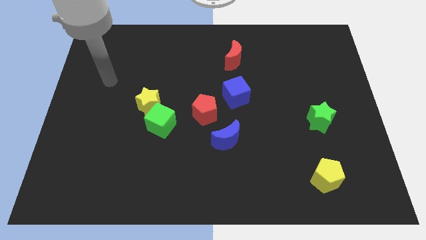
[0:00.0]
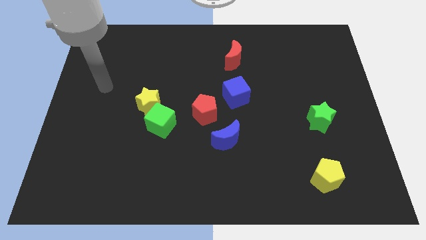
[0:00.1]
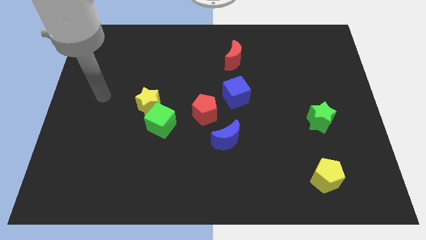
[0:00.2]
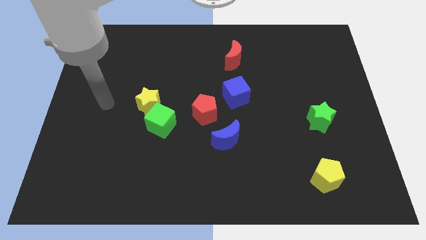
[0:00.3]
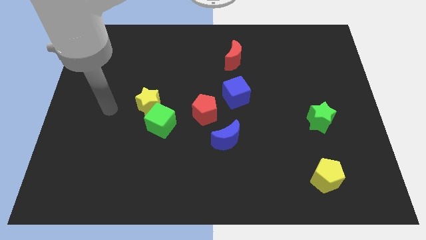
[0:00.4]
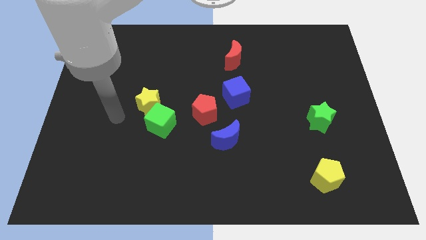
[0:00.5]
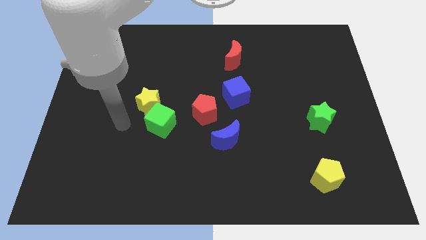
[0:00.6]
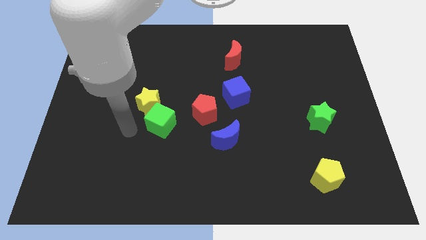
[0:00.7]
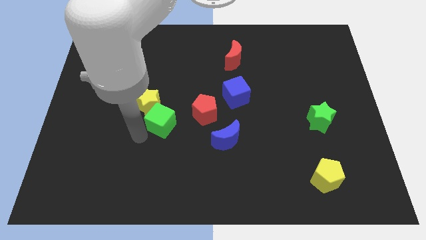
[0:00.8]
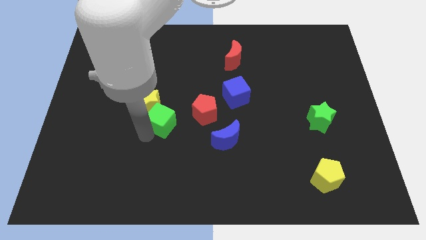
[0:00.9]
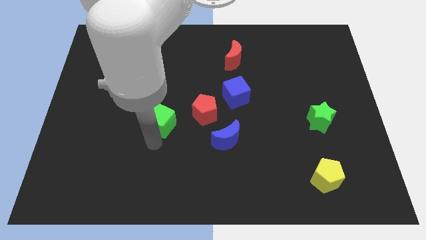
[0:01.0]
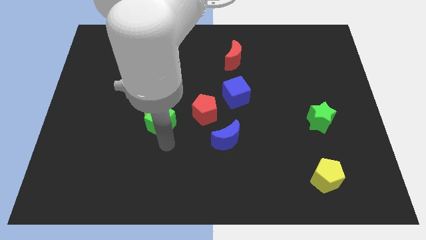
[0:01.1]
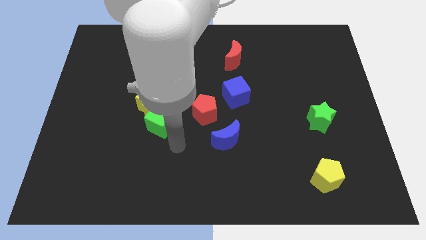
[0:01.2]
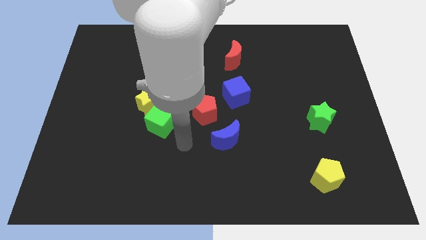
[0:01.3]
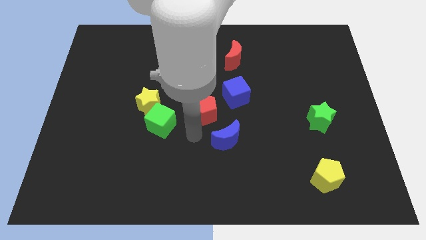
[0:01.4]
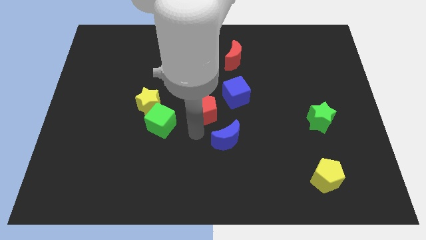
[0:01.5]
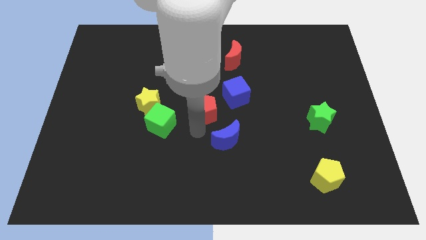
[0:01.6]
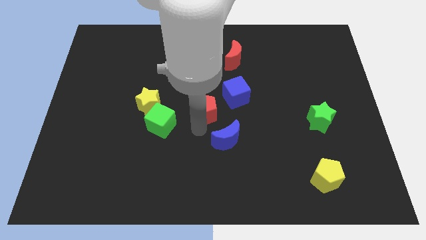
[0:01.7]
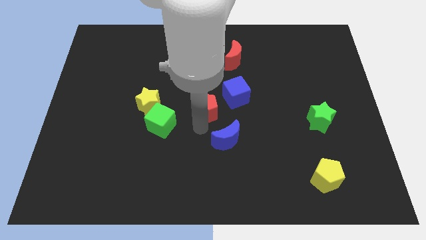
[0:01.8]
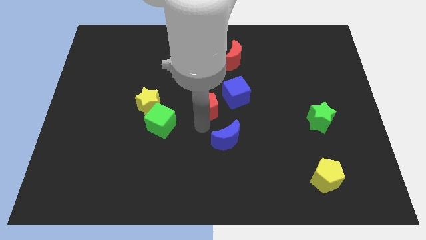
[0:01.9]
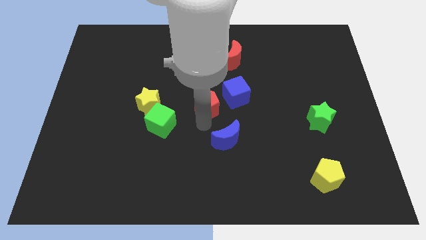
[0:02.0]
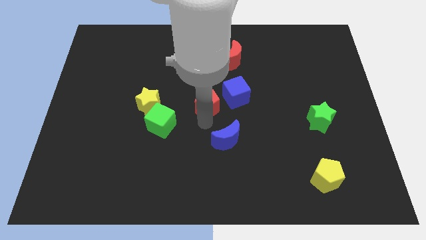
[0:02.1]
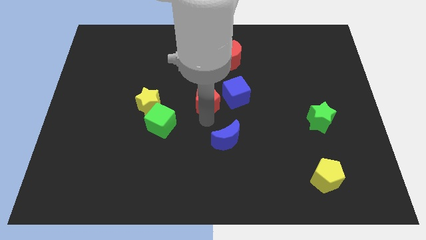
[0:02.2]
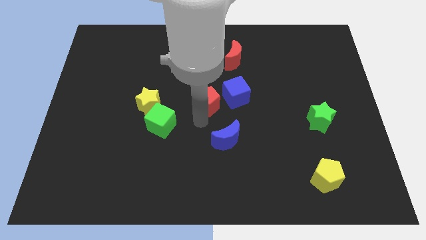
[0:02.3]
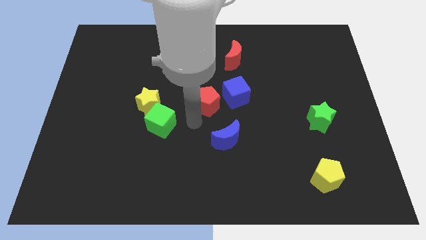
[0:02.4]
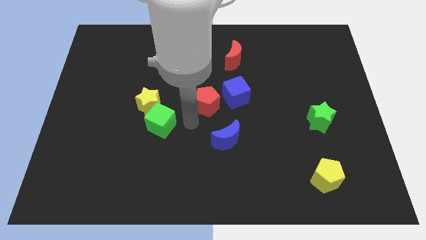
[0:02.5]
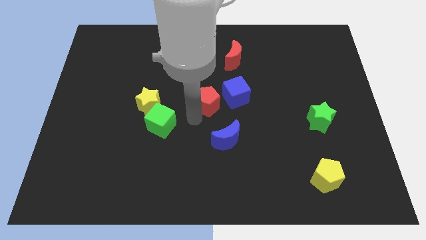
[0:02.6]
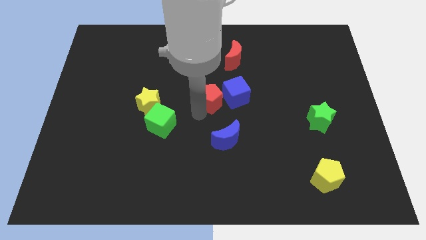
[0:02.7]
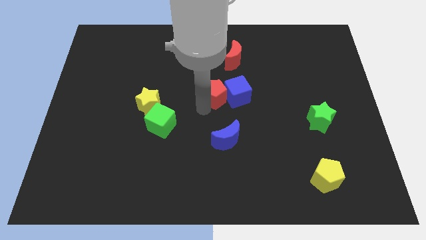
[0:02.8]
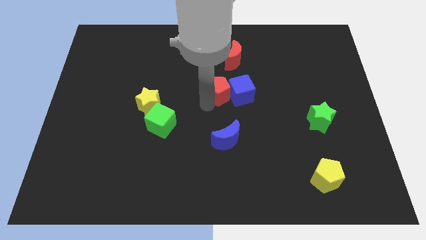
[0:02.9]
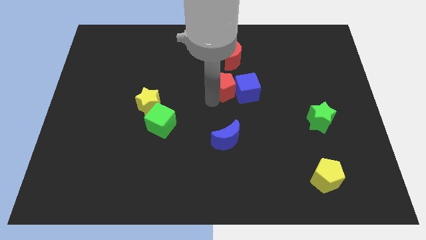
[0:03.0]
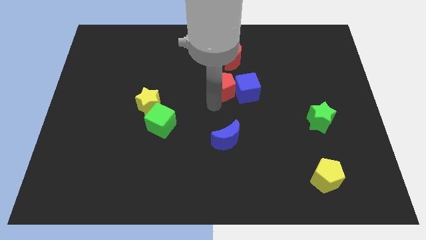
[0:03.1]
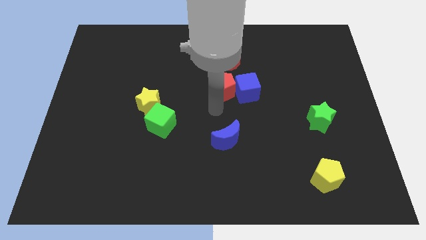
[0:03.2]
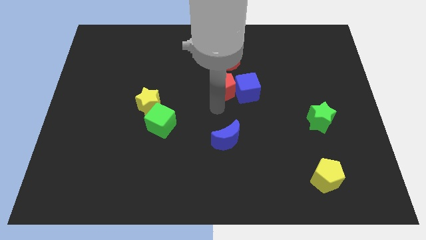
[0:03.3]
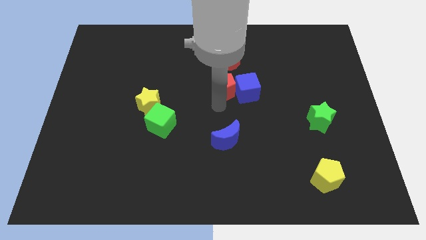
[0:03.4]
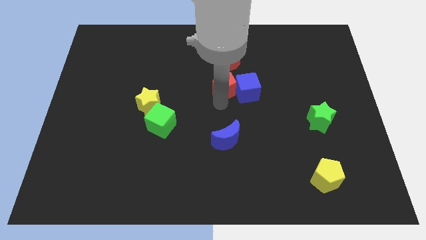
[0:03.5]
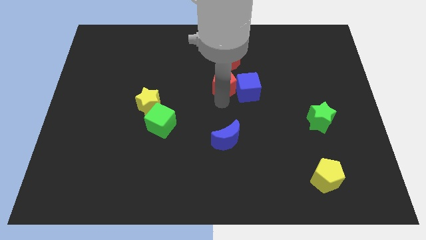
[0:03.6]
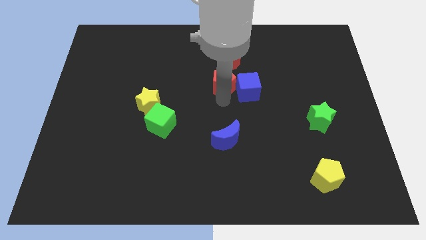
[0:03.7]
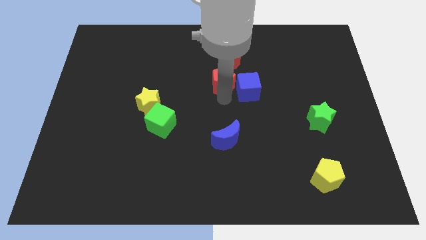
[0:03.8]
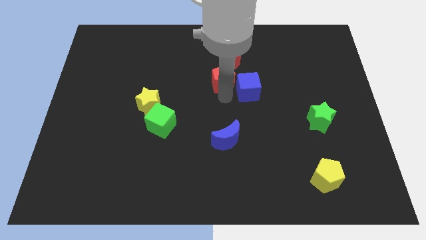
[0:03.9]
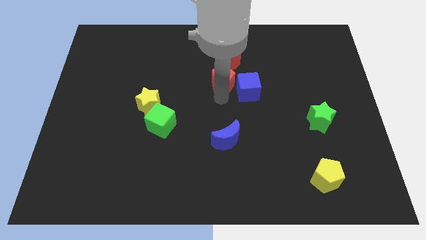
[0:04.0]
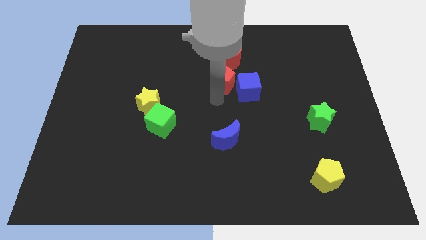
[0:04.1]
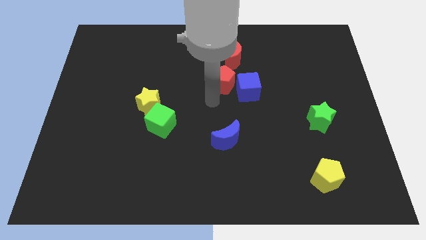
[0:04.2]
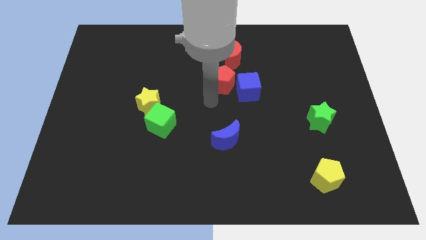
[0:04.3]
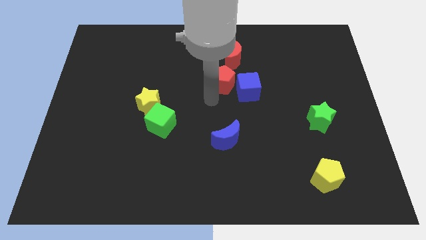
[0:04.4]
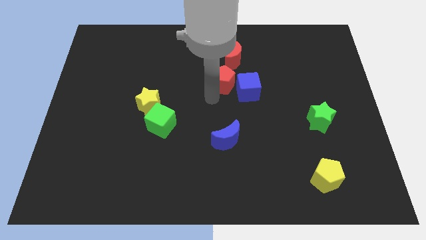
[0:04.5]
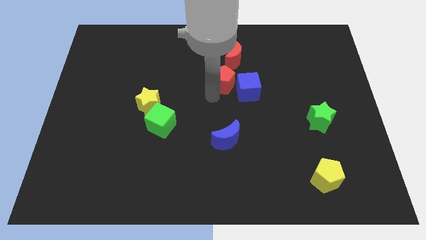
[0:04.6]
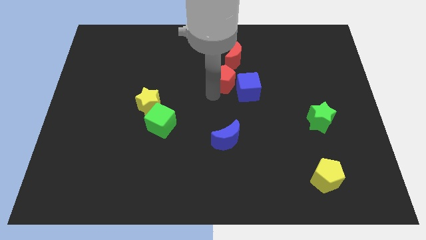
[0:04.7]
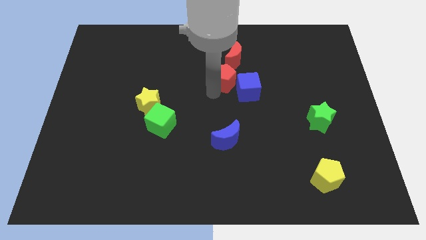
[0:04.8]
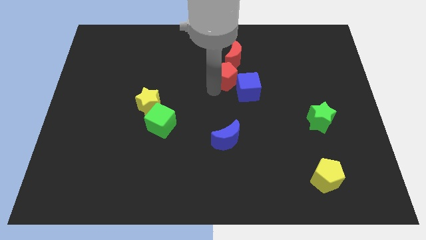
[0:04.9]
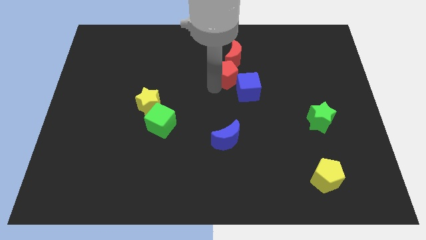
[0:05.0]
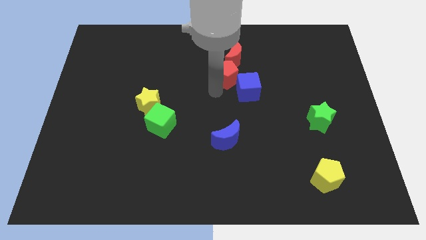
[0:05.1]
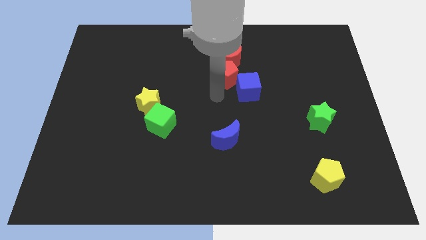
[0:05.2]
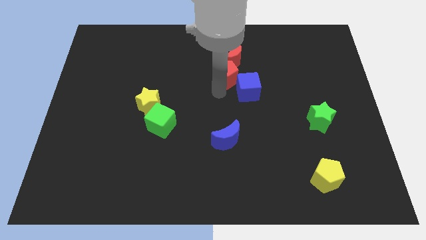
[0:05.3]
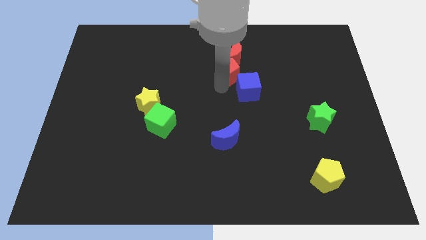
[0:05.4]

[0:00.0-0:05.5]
slide the red pentagon next to the red moon

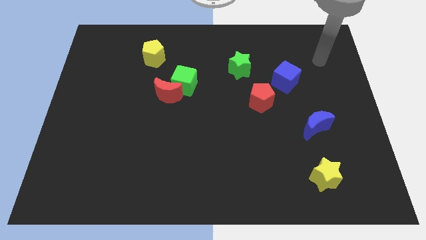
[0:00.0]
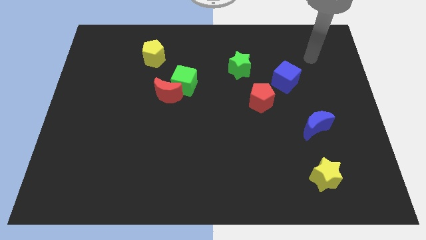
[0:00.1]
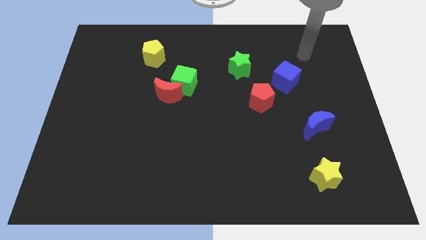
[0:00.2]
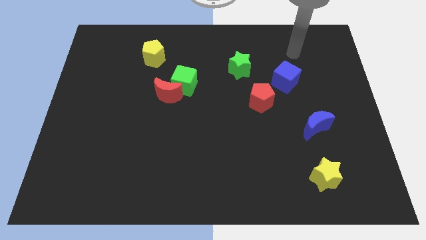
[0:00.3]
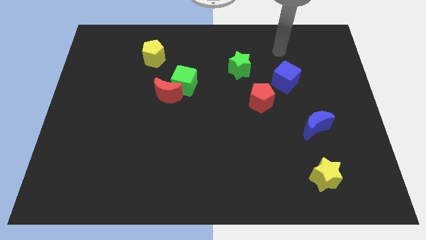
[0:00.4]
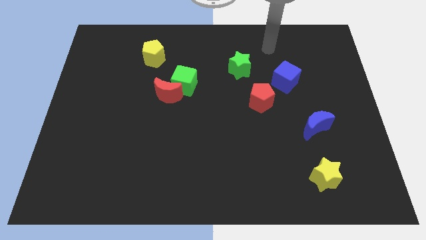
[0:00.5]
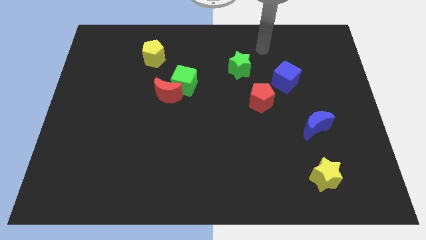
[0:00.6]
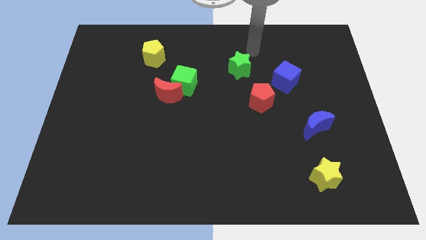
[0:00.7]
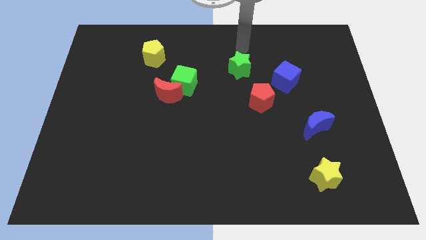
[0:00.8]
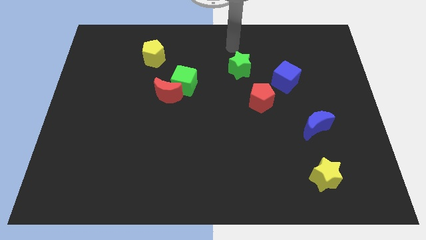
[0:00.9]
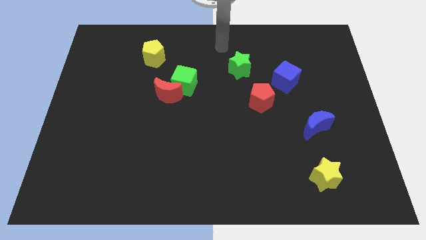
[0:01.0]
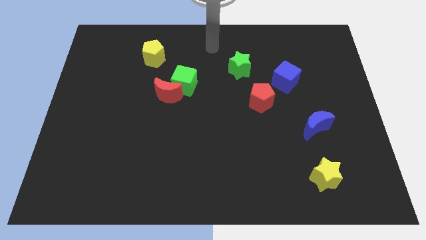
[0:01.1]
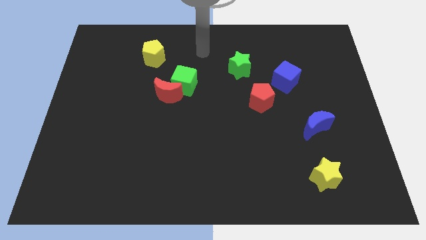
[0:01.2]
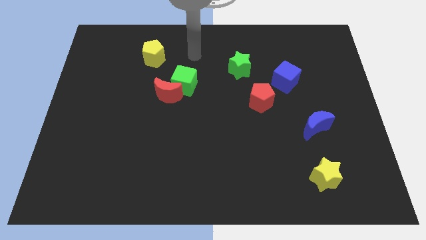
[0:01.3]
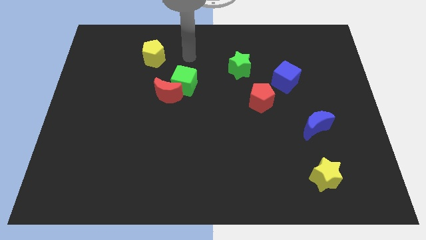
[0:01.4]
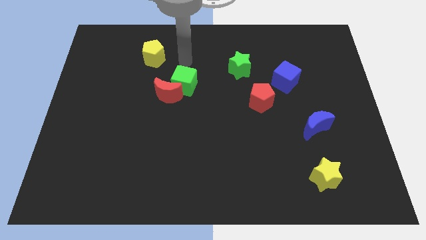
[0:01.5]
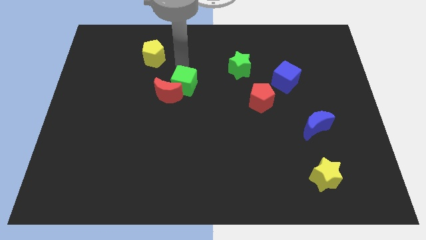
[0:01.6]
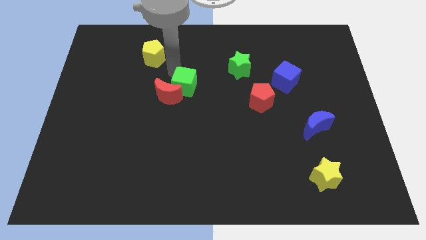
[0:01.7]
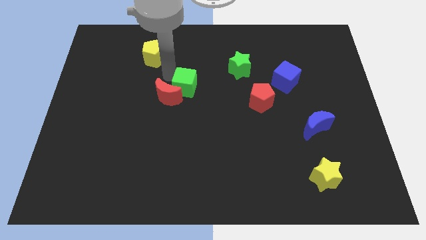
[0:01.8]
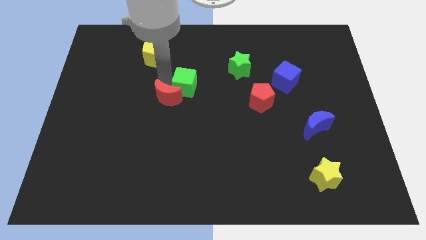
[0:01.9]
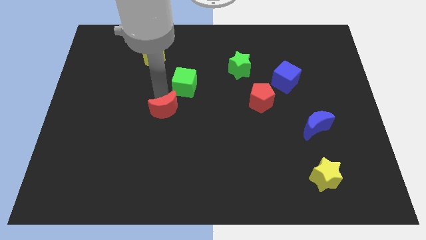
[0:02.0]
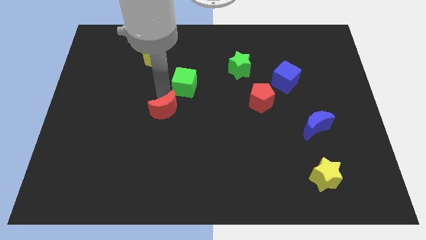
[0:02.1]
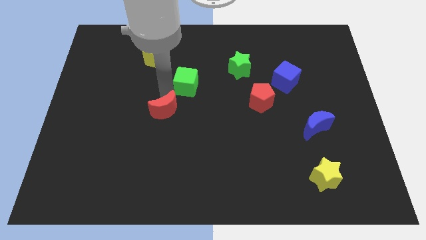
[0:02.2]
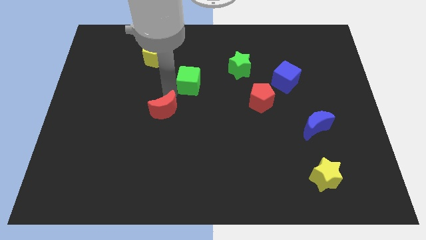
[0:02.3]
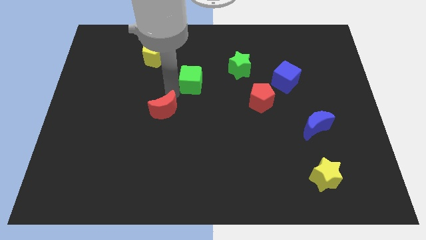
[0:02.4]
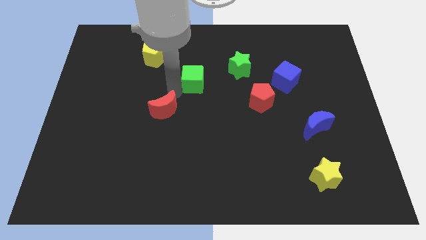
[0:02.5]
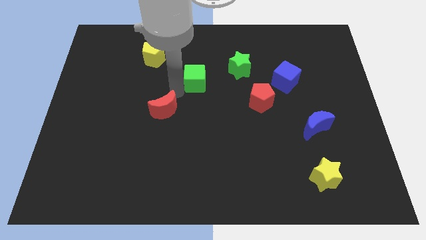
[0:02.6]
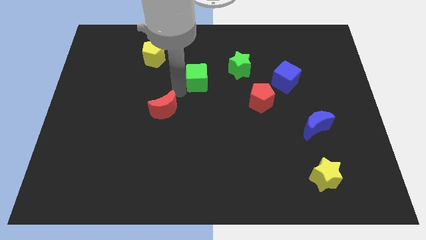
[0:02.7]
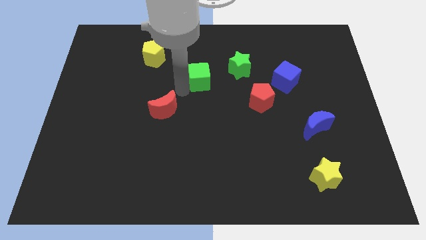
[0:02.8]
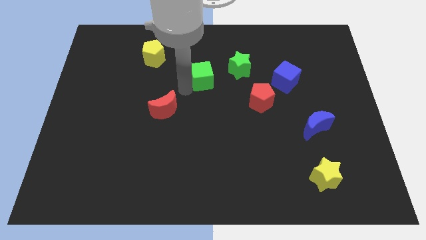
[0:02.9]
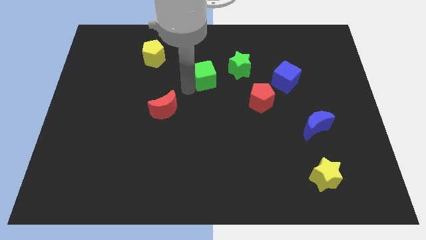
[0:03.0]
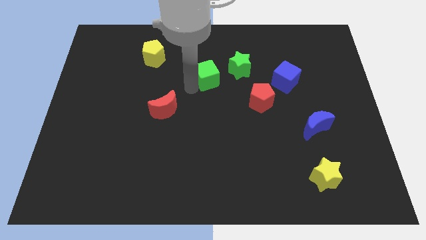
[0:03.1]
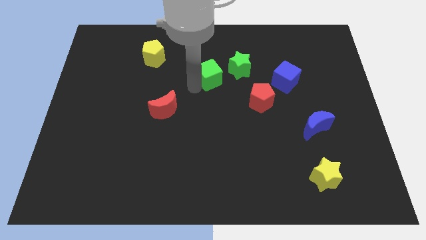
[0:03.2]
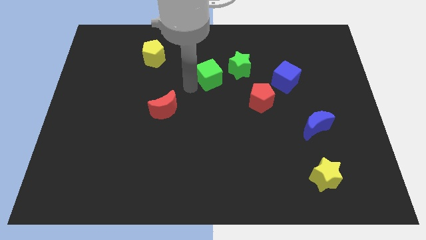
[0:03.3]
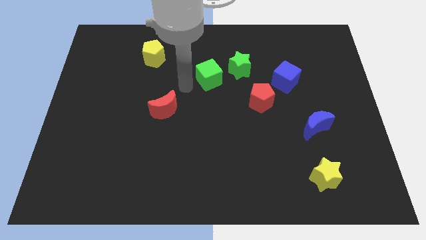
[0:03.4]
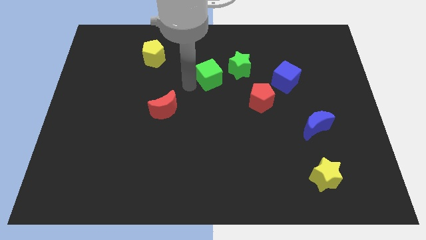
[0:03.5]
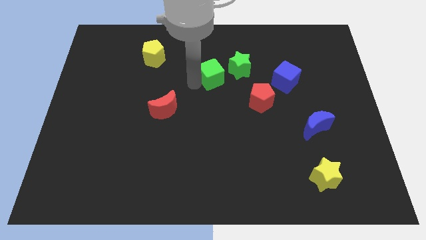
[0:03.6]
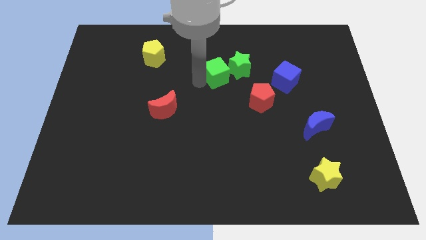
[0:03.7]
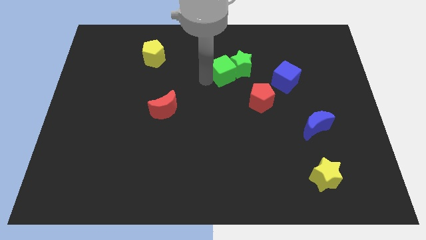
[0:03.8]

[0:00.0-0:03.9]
slide the green cube towards the green star
